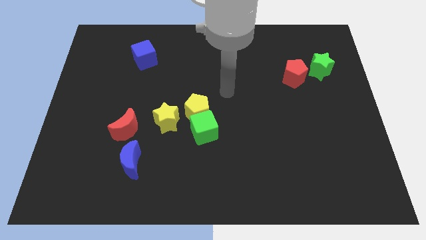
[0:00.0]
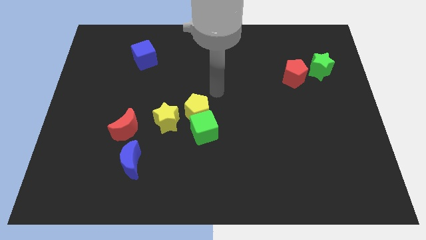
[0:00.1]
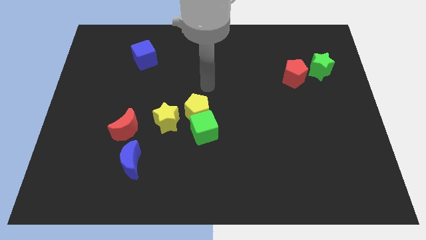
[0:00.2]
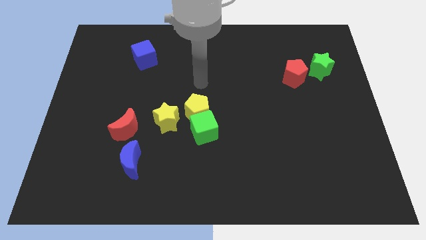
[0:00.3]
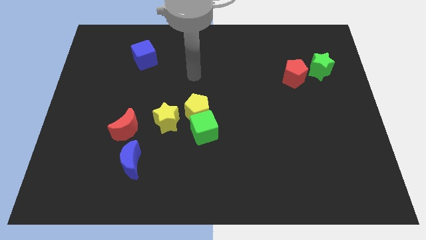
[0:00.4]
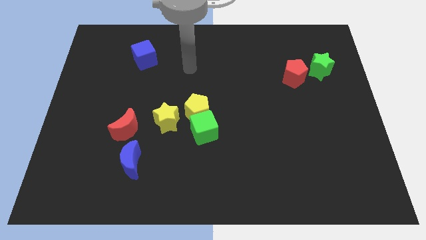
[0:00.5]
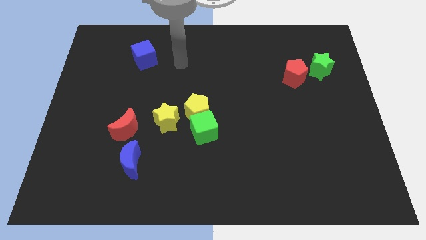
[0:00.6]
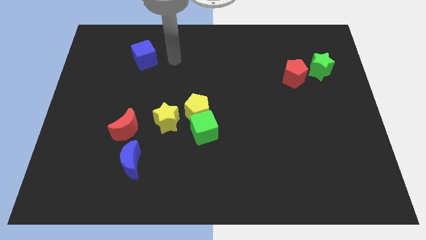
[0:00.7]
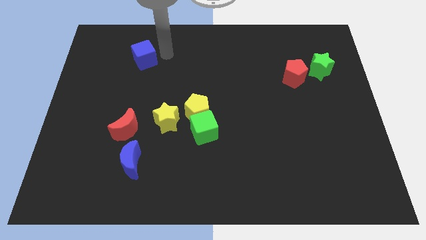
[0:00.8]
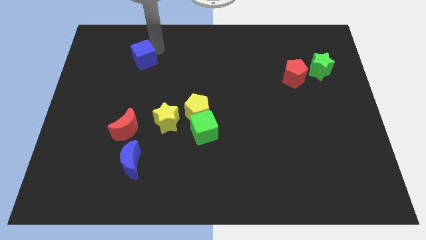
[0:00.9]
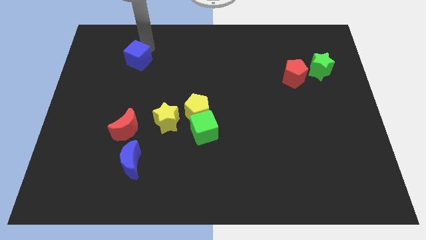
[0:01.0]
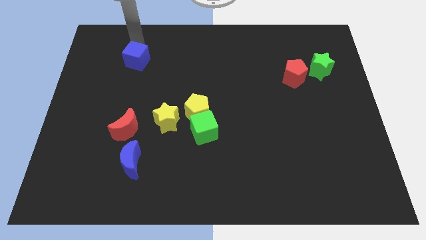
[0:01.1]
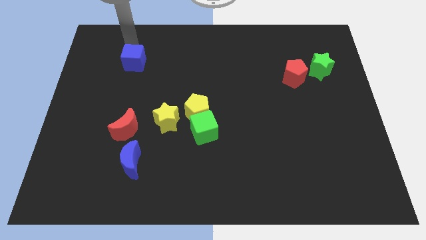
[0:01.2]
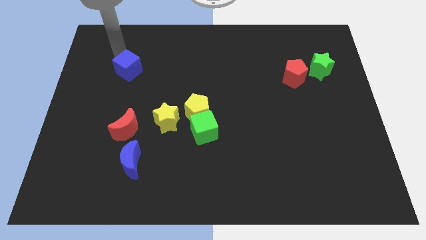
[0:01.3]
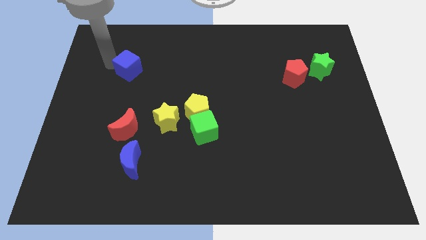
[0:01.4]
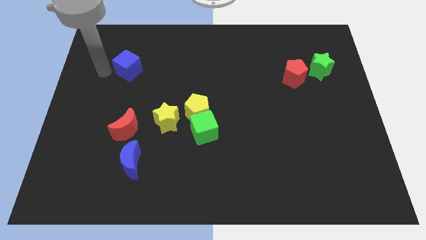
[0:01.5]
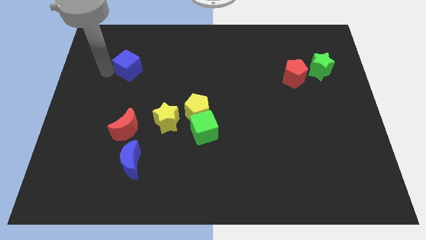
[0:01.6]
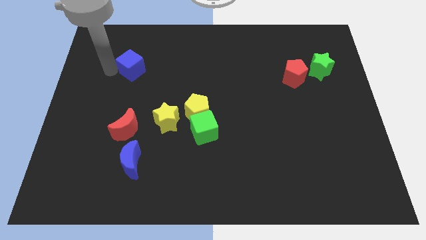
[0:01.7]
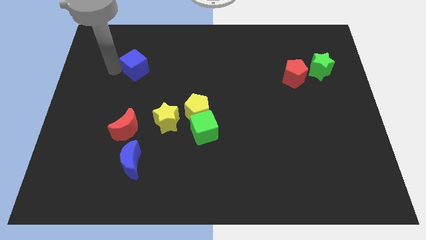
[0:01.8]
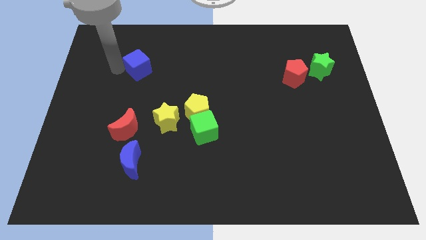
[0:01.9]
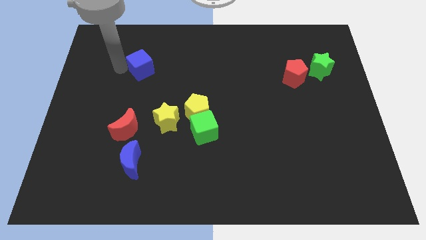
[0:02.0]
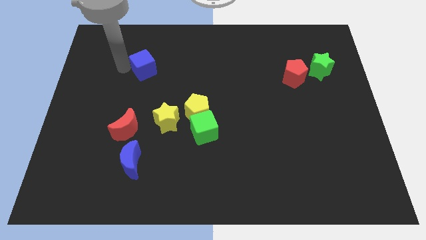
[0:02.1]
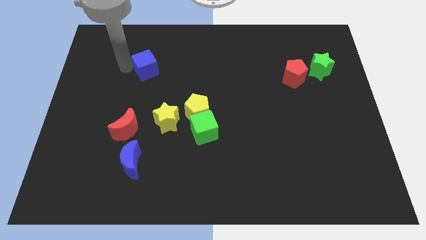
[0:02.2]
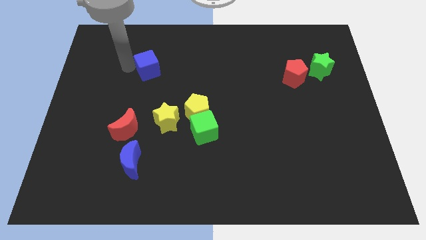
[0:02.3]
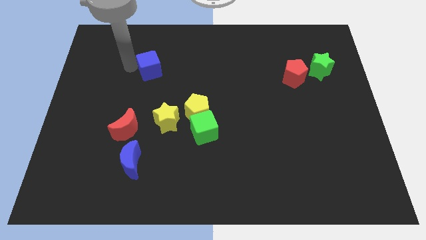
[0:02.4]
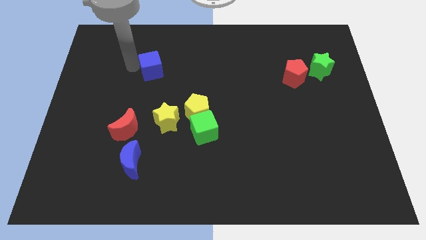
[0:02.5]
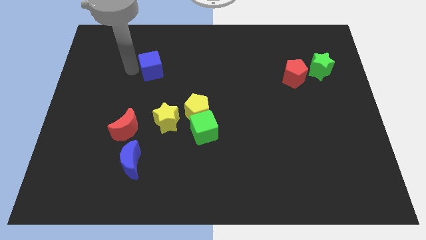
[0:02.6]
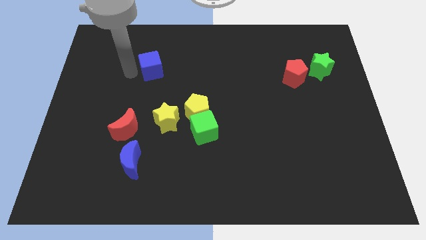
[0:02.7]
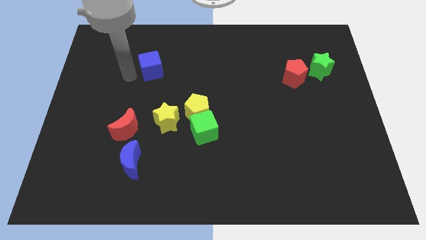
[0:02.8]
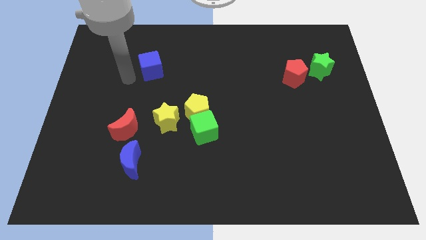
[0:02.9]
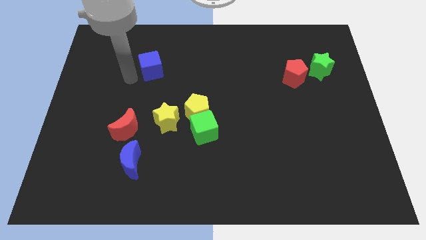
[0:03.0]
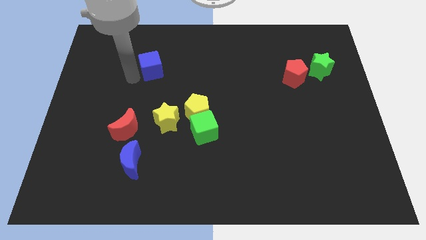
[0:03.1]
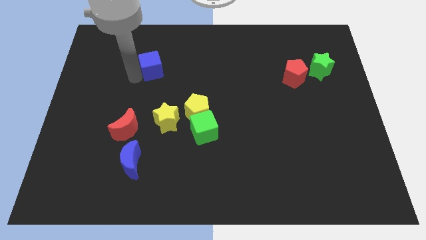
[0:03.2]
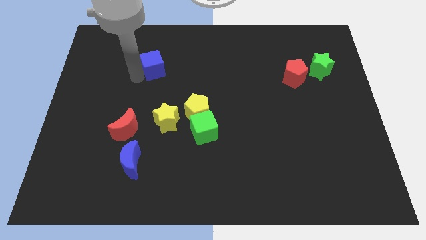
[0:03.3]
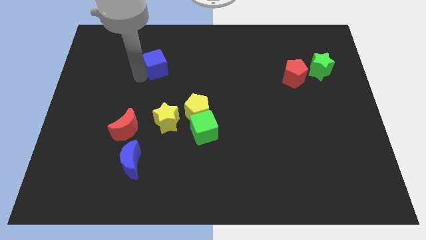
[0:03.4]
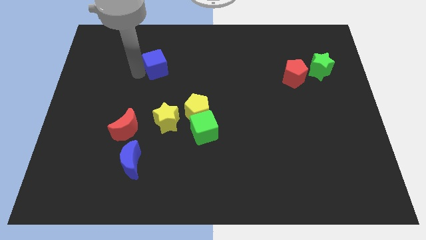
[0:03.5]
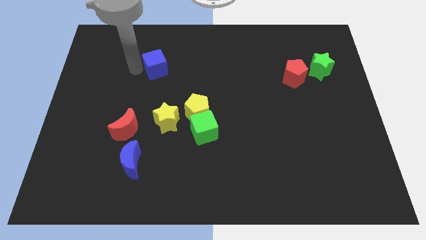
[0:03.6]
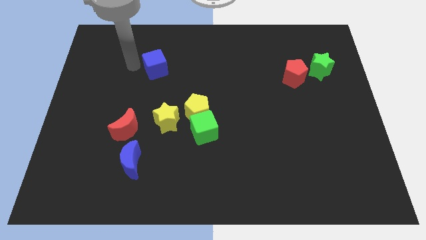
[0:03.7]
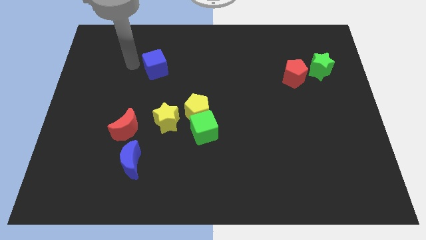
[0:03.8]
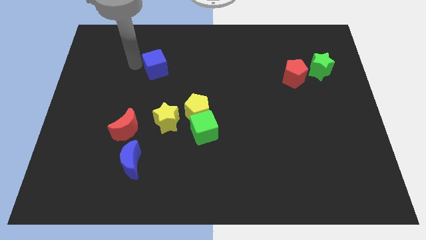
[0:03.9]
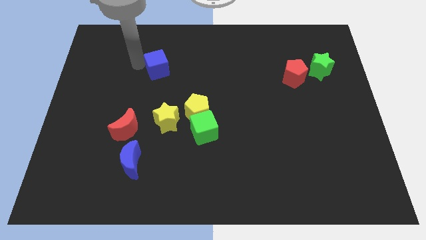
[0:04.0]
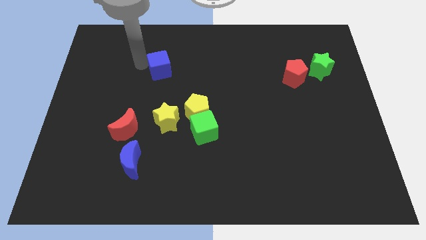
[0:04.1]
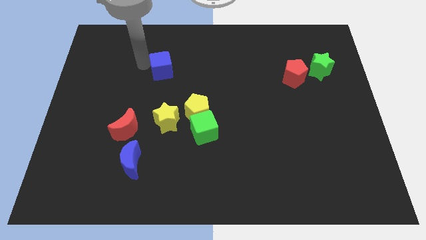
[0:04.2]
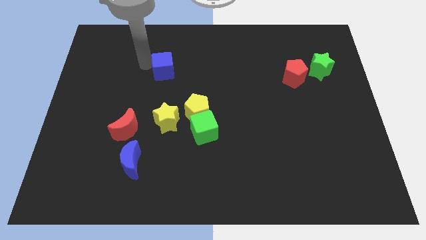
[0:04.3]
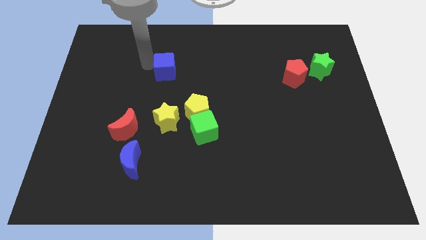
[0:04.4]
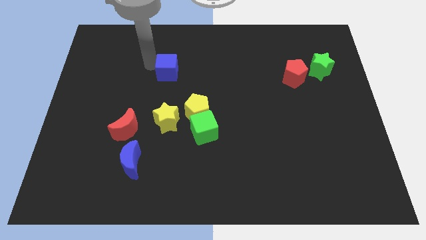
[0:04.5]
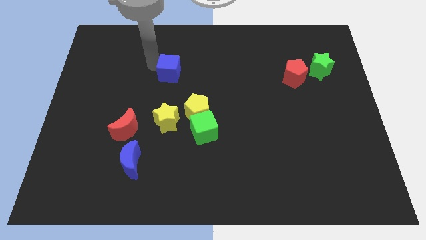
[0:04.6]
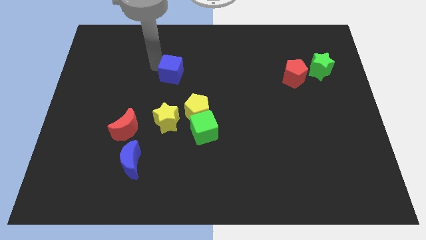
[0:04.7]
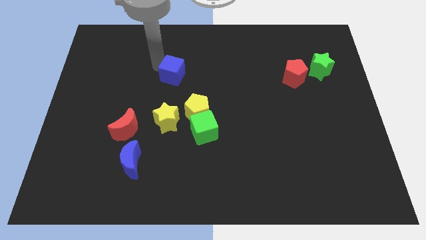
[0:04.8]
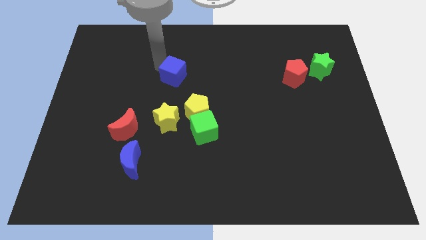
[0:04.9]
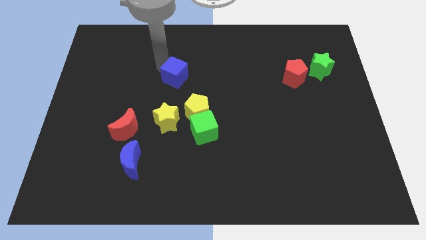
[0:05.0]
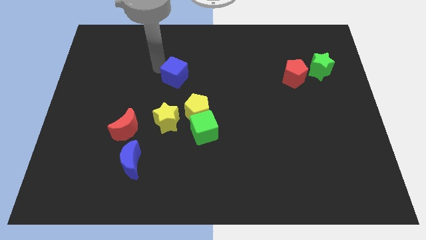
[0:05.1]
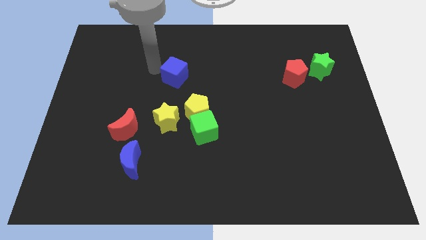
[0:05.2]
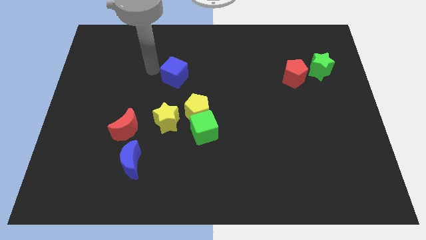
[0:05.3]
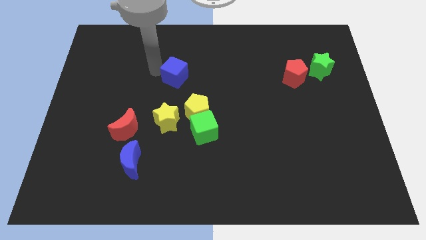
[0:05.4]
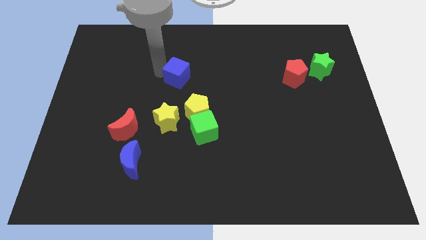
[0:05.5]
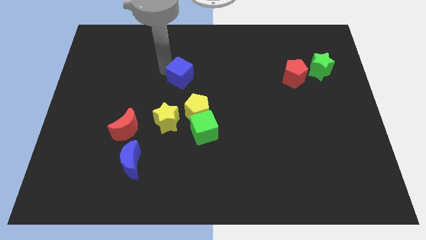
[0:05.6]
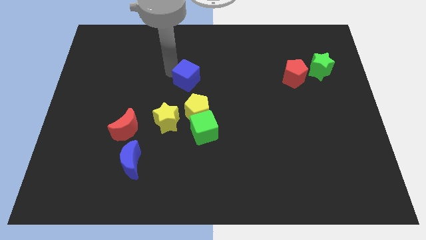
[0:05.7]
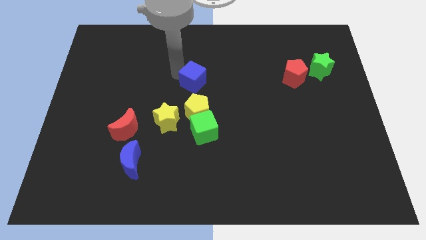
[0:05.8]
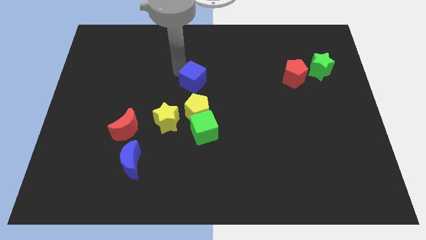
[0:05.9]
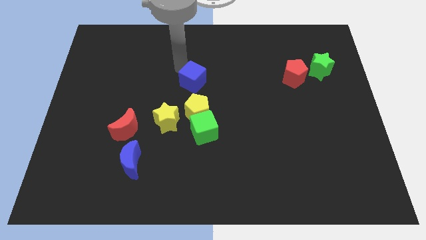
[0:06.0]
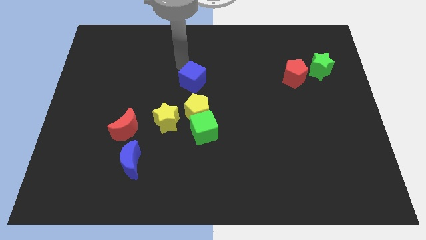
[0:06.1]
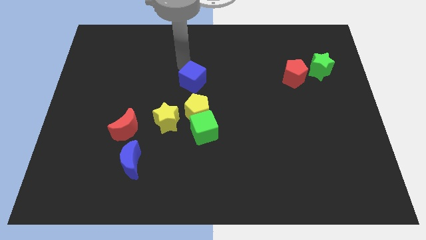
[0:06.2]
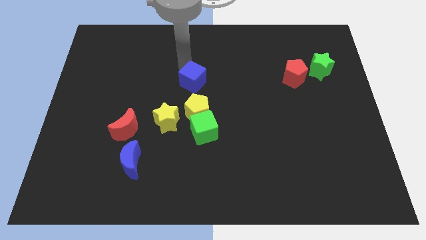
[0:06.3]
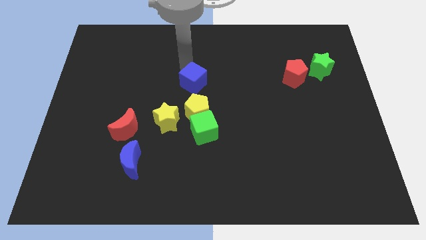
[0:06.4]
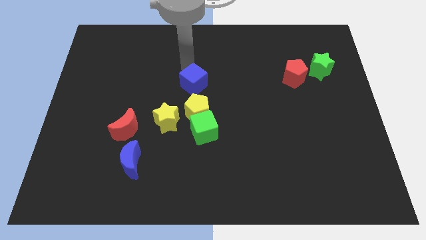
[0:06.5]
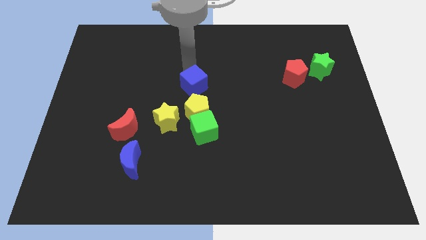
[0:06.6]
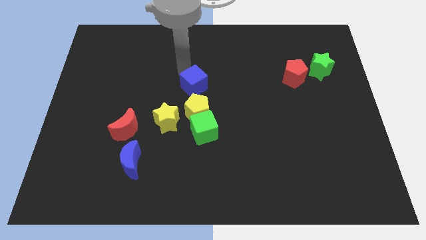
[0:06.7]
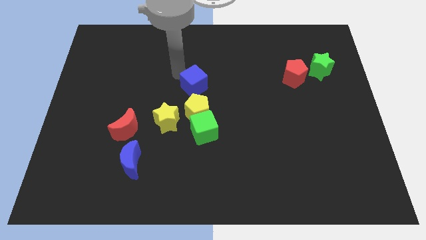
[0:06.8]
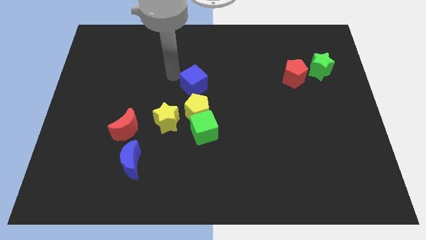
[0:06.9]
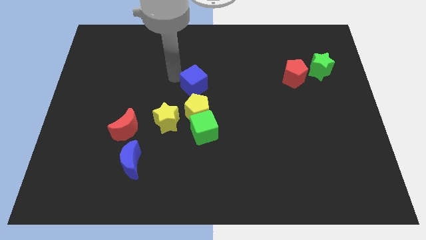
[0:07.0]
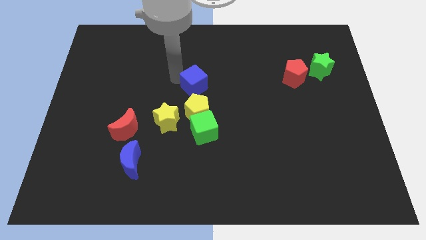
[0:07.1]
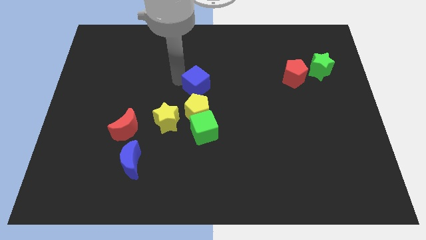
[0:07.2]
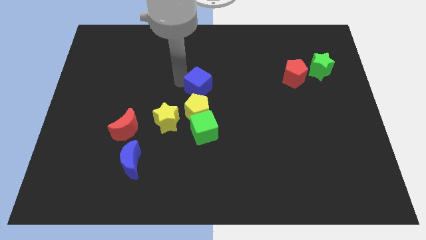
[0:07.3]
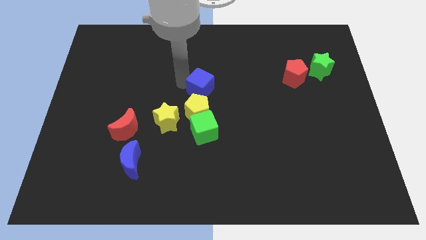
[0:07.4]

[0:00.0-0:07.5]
push the blue cube to the top right side of the yellow pentagon
